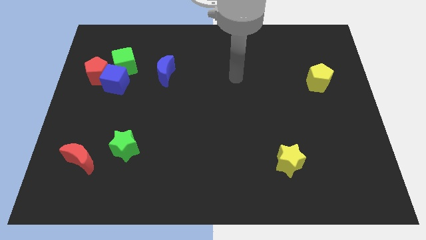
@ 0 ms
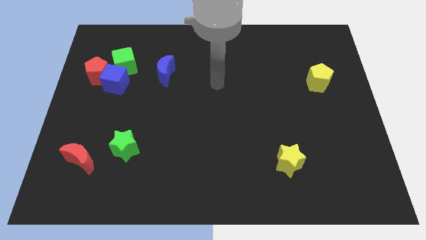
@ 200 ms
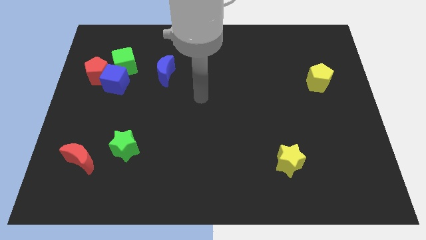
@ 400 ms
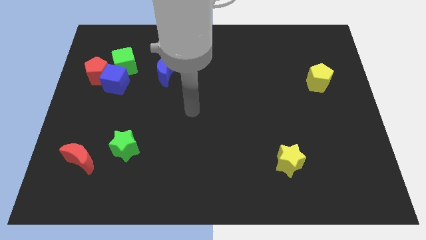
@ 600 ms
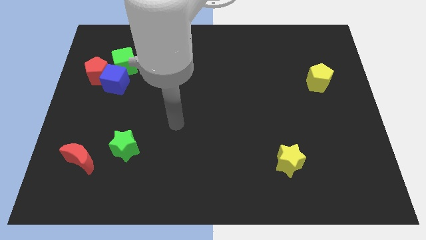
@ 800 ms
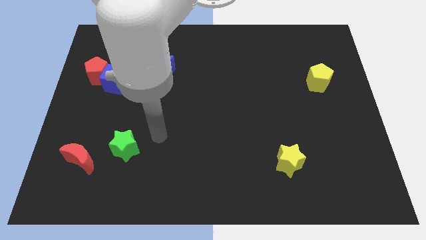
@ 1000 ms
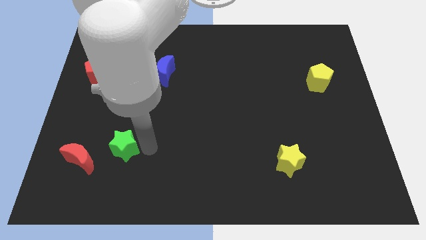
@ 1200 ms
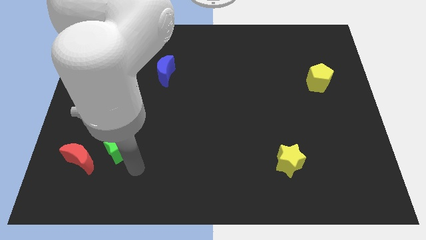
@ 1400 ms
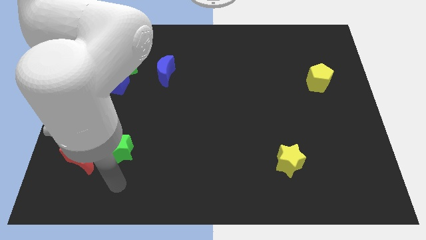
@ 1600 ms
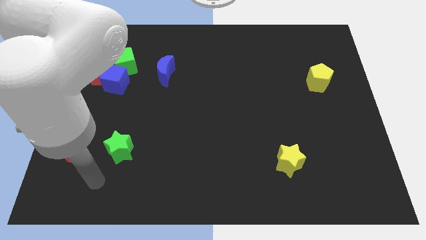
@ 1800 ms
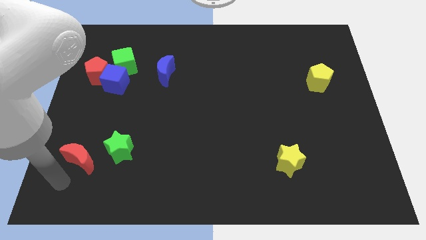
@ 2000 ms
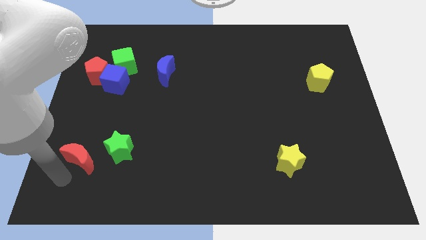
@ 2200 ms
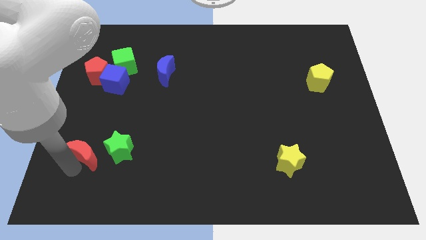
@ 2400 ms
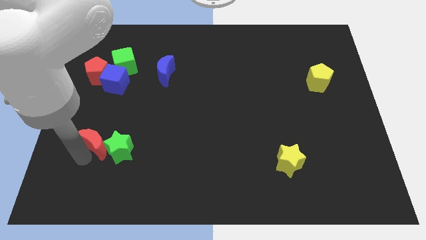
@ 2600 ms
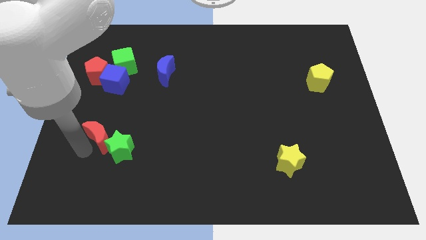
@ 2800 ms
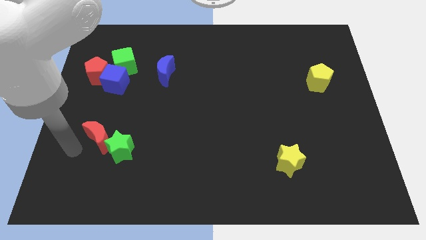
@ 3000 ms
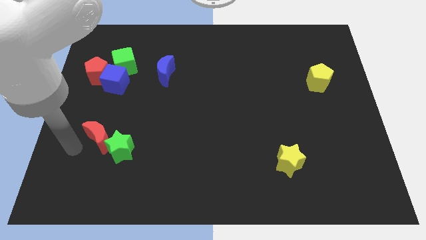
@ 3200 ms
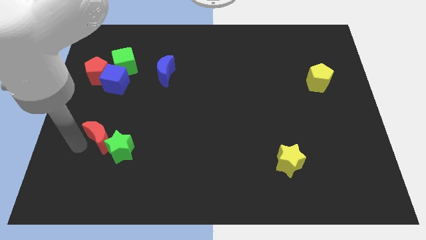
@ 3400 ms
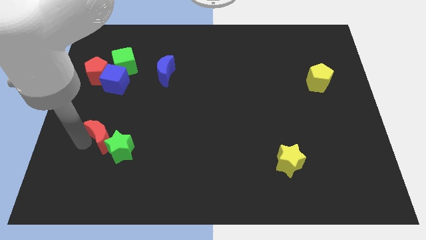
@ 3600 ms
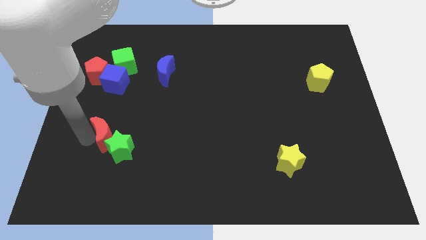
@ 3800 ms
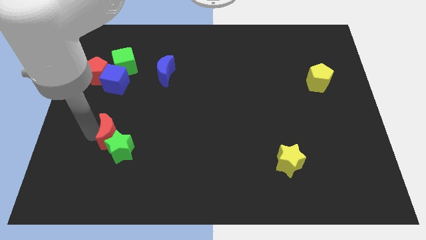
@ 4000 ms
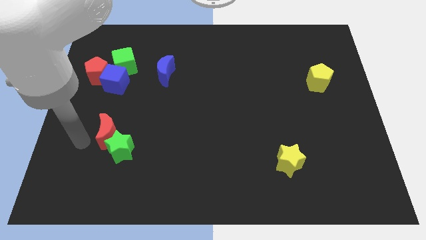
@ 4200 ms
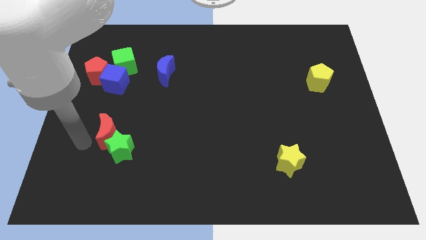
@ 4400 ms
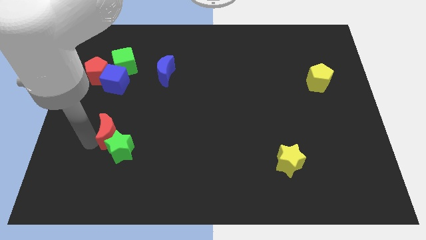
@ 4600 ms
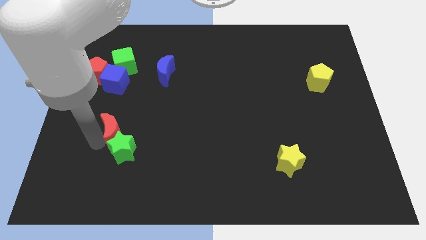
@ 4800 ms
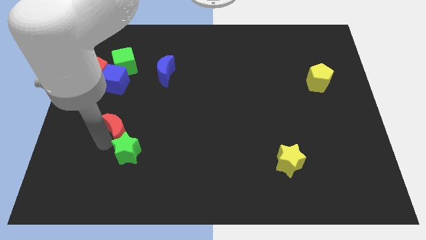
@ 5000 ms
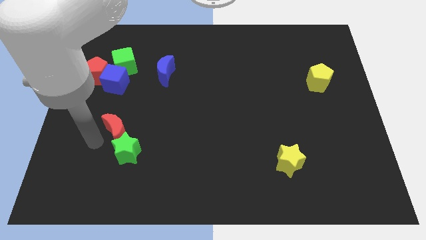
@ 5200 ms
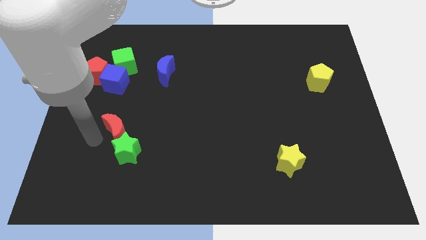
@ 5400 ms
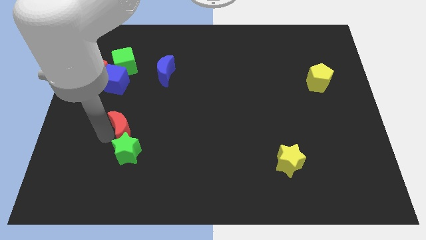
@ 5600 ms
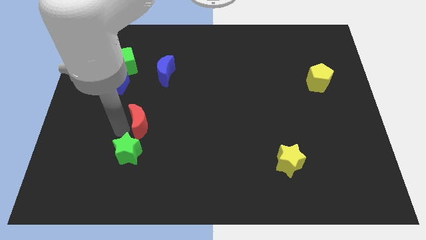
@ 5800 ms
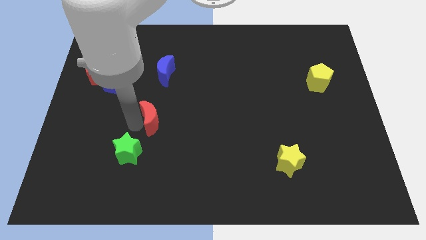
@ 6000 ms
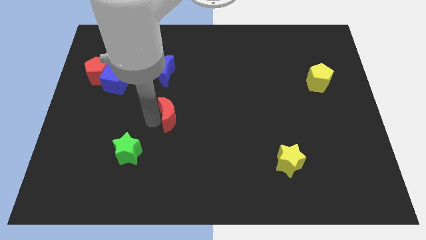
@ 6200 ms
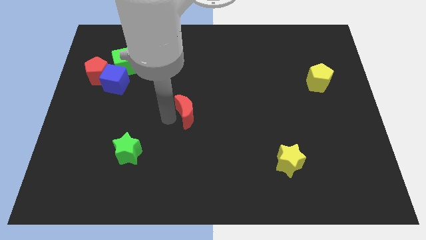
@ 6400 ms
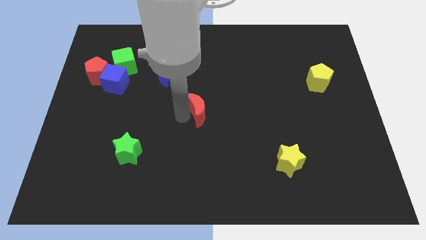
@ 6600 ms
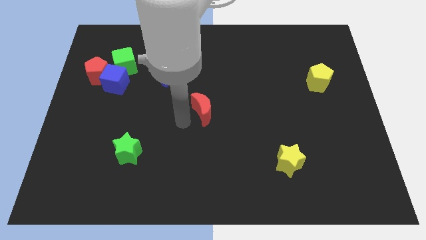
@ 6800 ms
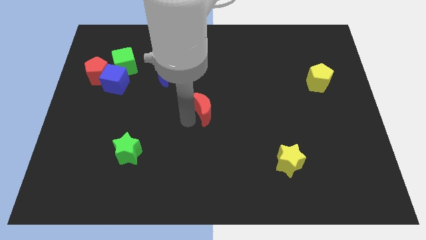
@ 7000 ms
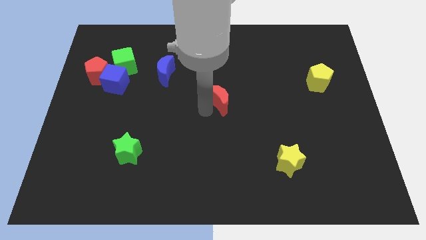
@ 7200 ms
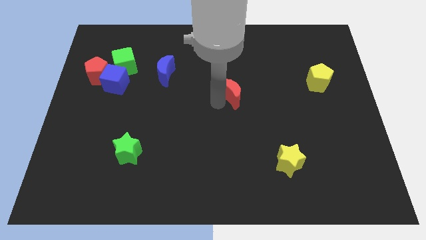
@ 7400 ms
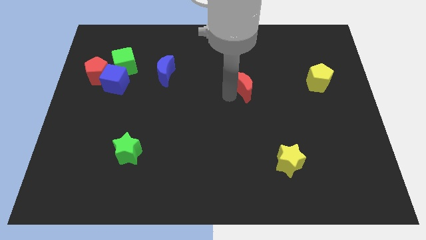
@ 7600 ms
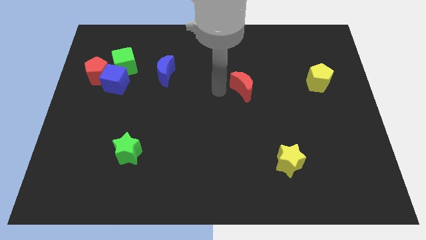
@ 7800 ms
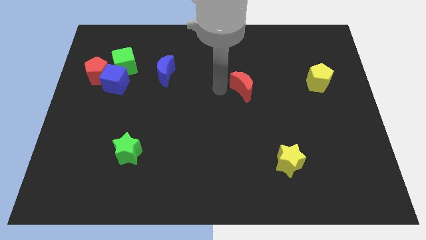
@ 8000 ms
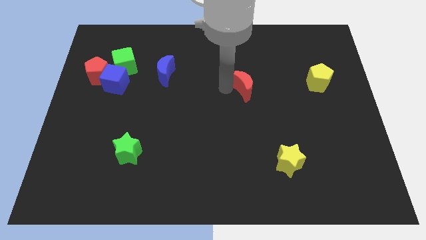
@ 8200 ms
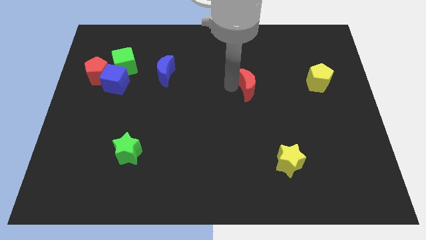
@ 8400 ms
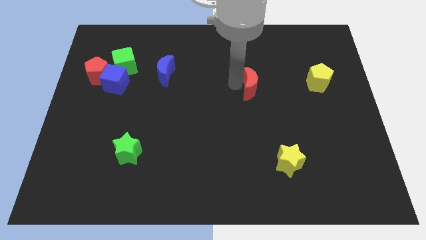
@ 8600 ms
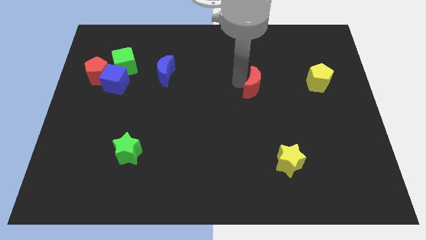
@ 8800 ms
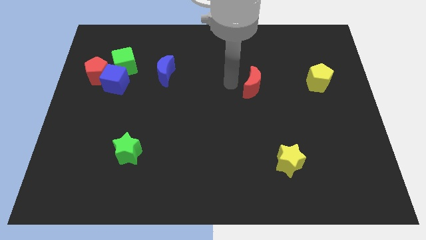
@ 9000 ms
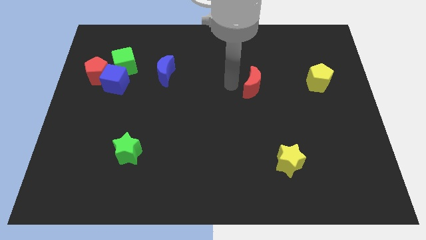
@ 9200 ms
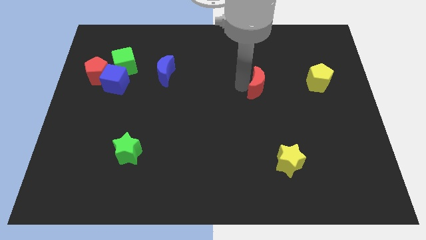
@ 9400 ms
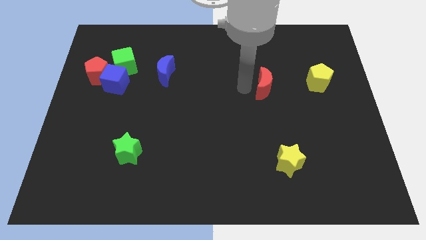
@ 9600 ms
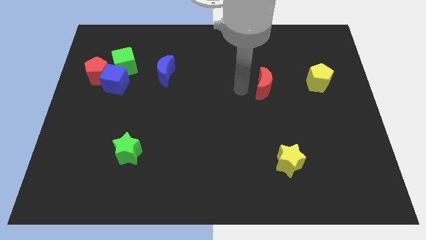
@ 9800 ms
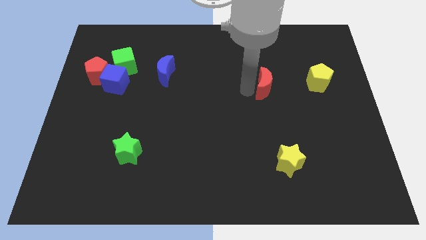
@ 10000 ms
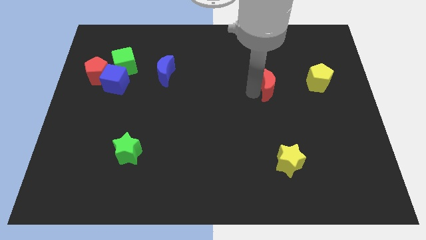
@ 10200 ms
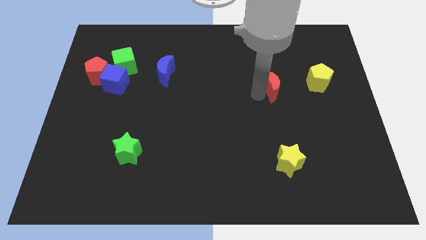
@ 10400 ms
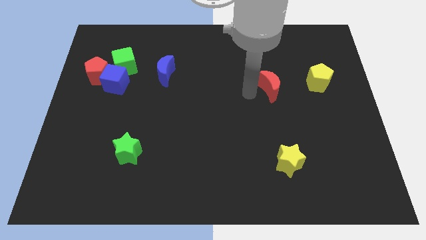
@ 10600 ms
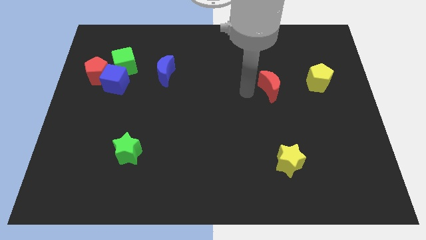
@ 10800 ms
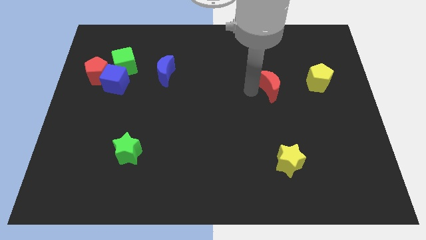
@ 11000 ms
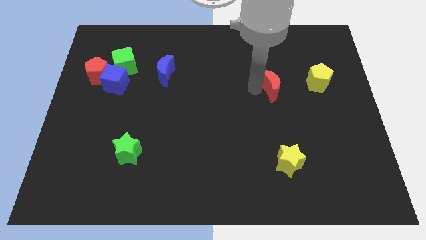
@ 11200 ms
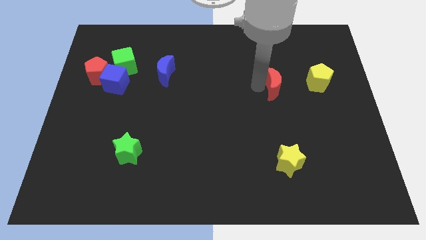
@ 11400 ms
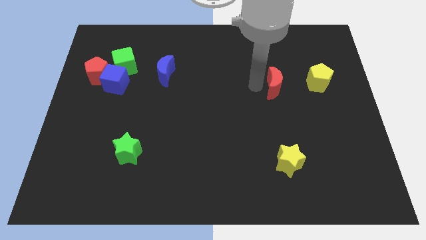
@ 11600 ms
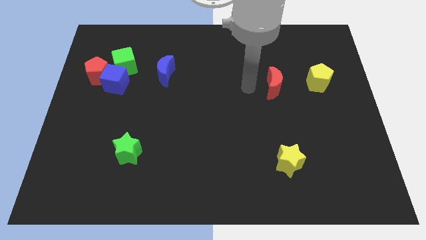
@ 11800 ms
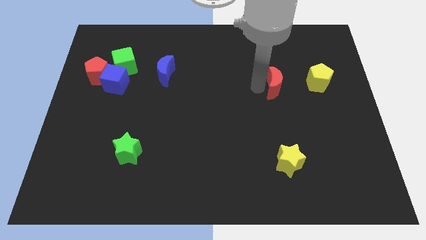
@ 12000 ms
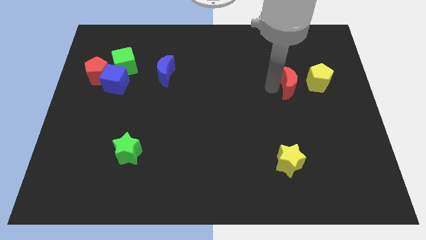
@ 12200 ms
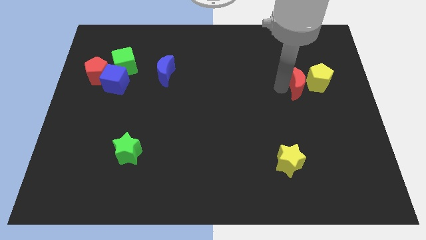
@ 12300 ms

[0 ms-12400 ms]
push the red moon to the yellow pentagon
